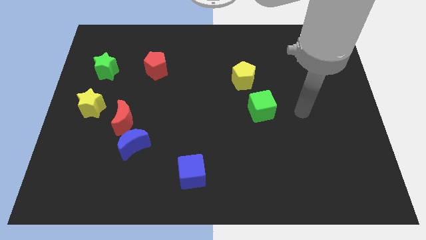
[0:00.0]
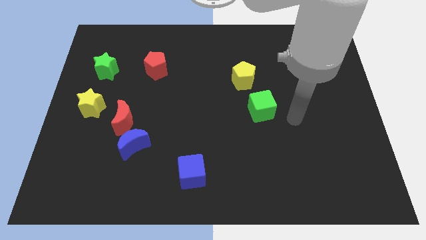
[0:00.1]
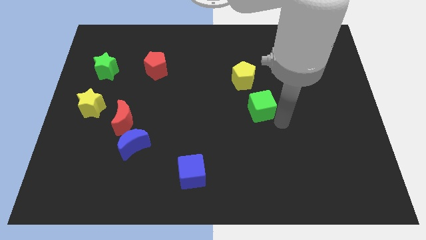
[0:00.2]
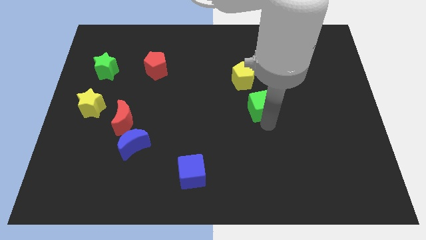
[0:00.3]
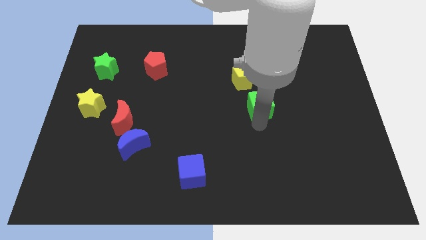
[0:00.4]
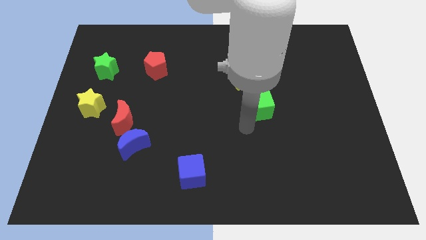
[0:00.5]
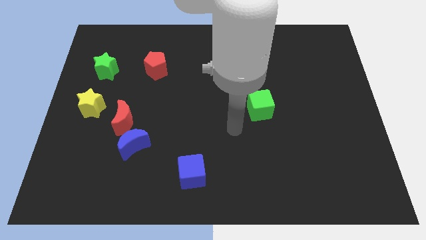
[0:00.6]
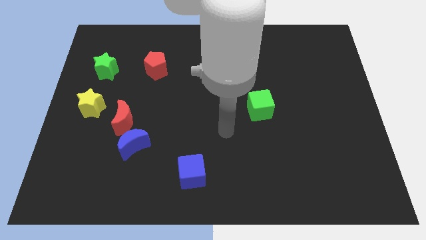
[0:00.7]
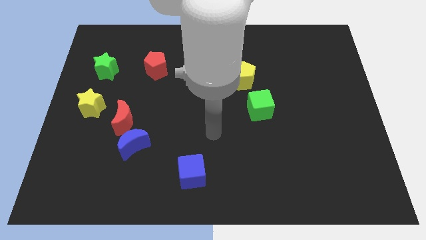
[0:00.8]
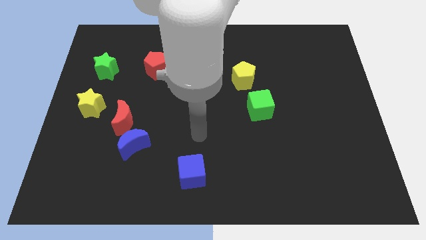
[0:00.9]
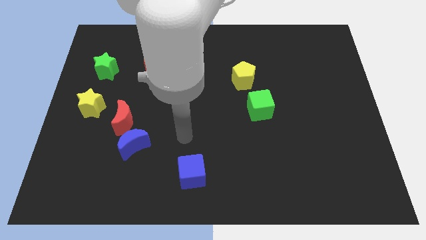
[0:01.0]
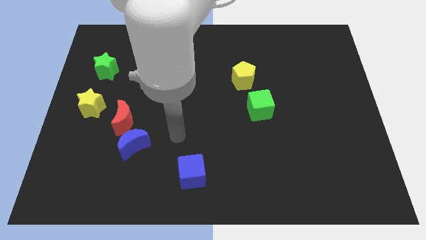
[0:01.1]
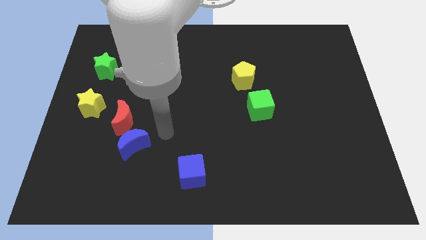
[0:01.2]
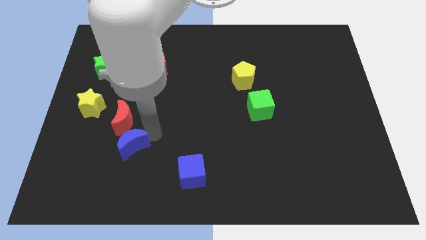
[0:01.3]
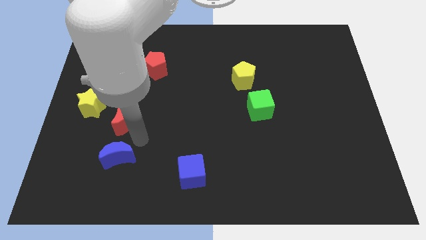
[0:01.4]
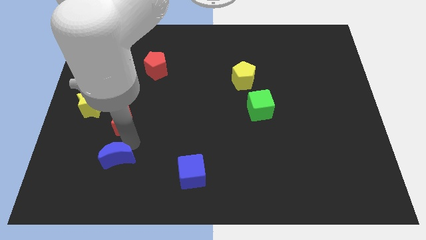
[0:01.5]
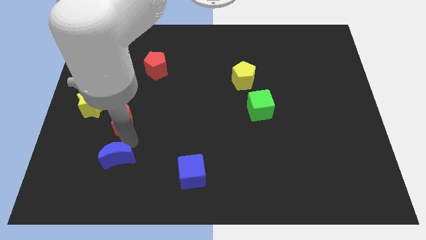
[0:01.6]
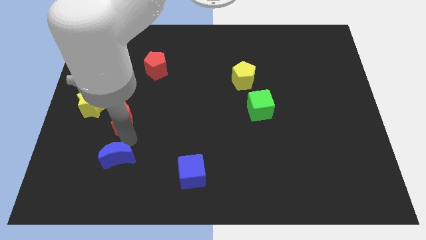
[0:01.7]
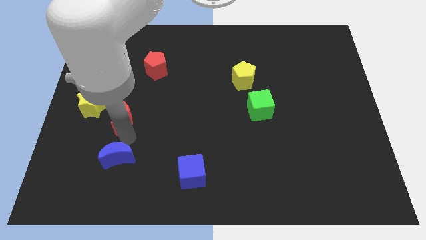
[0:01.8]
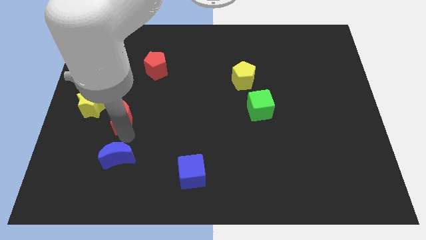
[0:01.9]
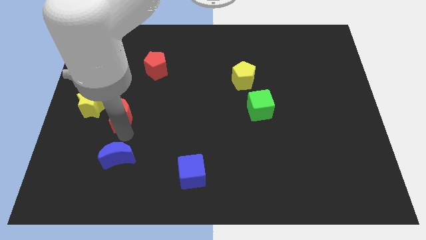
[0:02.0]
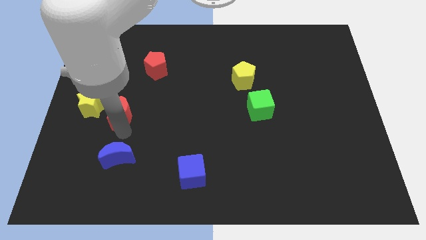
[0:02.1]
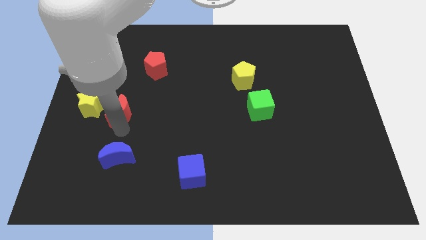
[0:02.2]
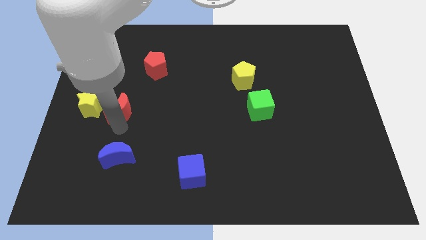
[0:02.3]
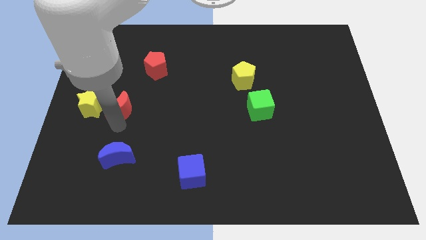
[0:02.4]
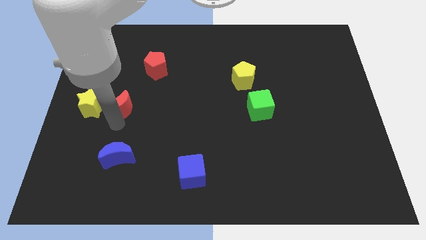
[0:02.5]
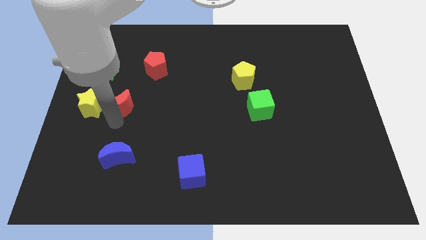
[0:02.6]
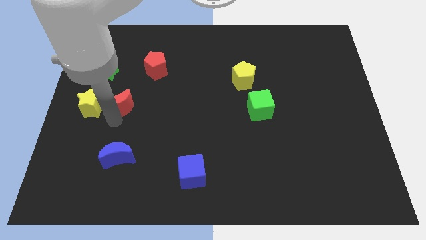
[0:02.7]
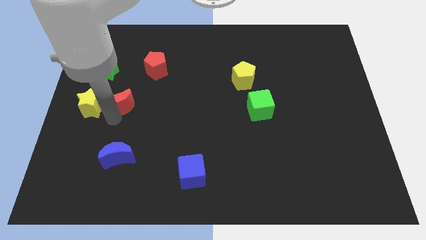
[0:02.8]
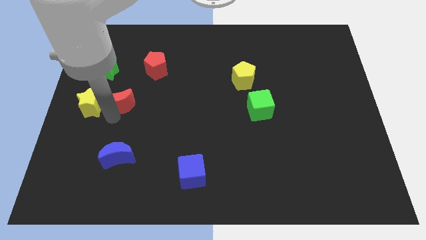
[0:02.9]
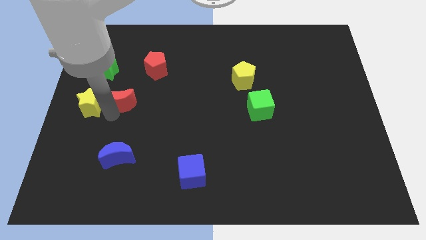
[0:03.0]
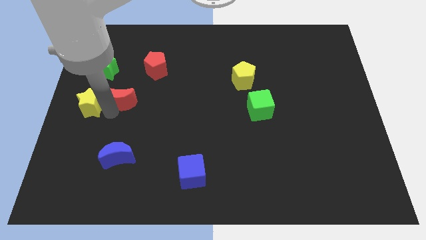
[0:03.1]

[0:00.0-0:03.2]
slide the red moon to the bottom right side of the green star

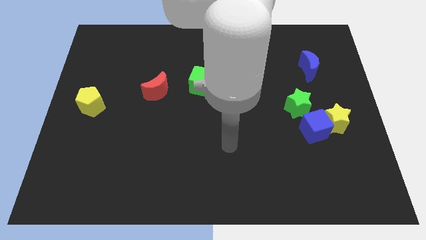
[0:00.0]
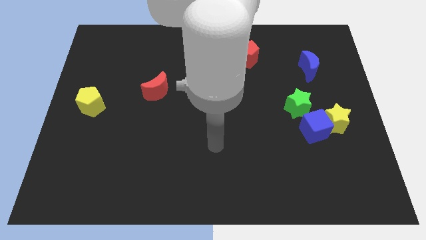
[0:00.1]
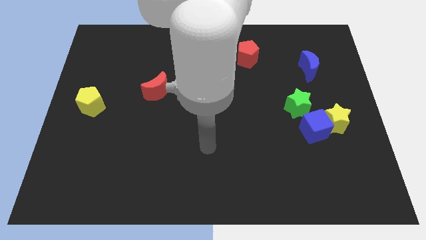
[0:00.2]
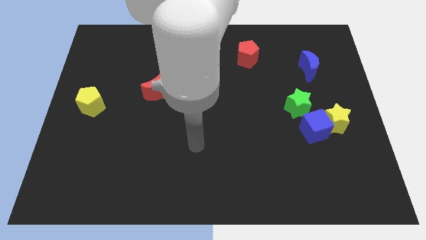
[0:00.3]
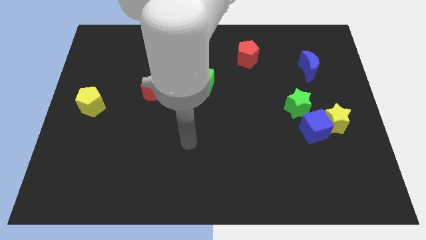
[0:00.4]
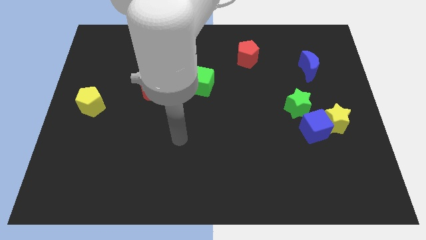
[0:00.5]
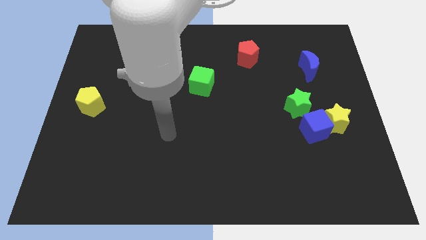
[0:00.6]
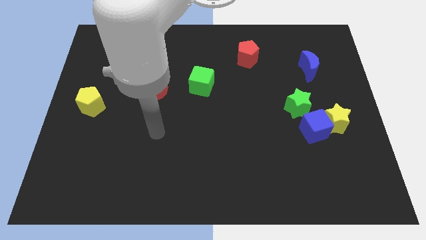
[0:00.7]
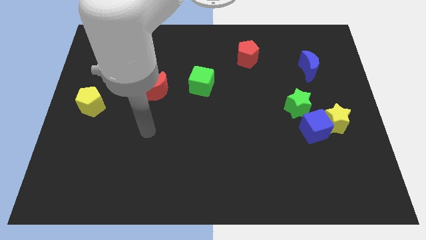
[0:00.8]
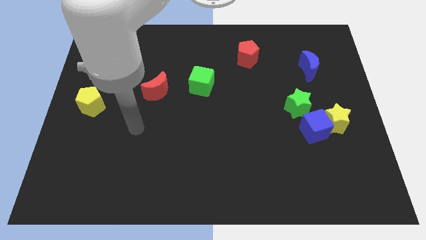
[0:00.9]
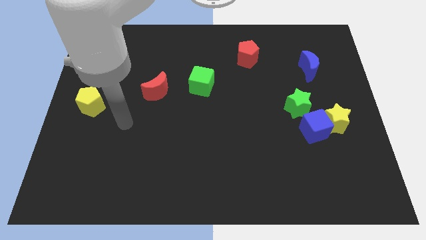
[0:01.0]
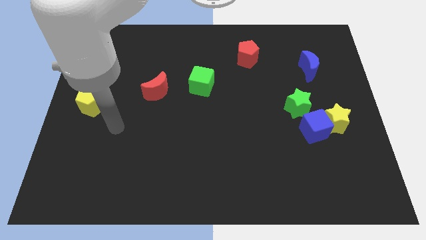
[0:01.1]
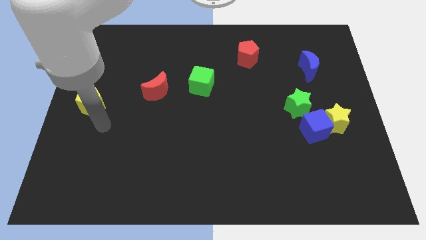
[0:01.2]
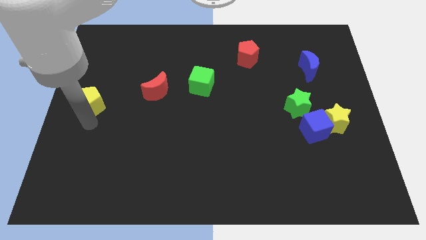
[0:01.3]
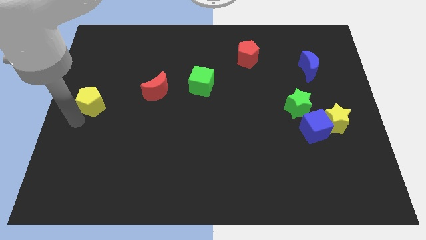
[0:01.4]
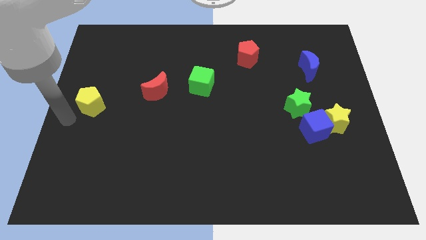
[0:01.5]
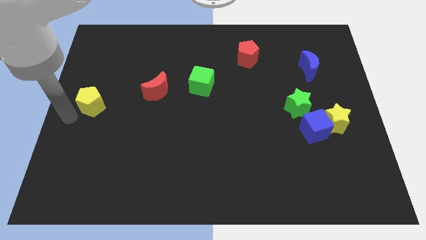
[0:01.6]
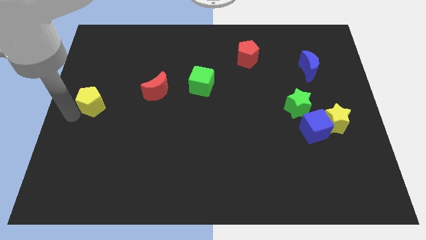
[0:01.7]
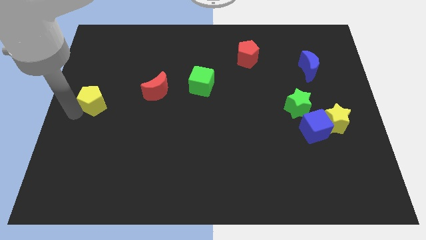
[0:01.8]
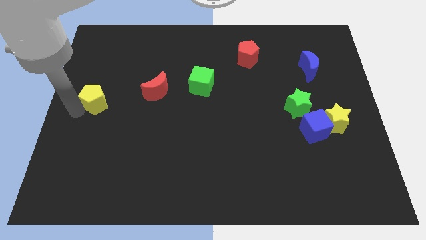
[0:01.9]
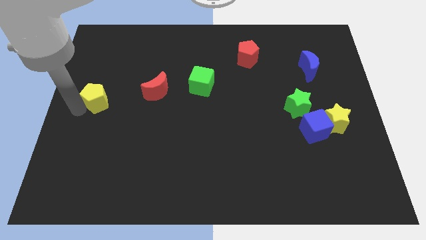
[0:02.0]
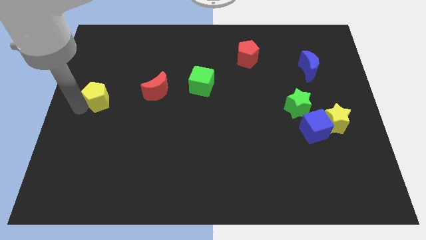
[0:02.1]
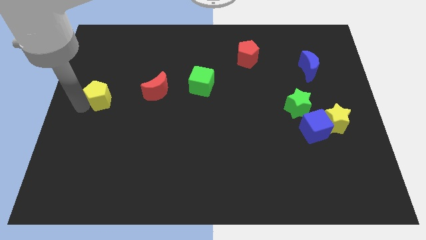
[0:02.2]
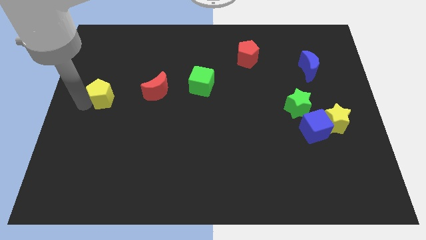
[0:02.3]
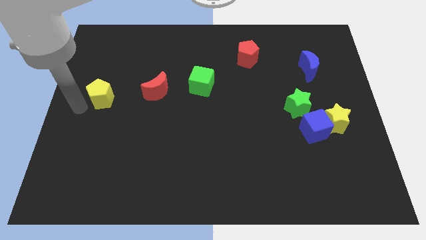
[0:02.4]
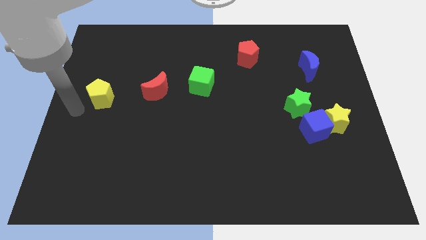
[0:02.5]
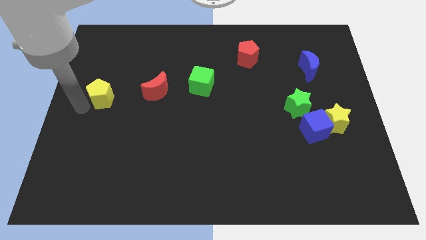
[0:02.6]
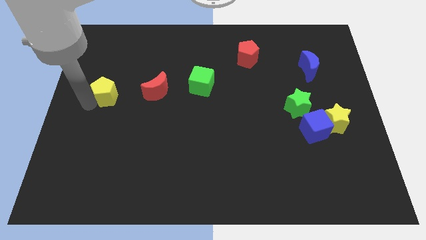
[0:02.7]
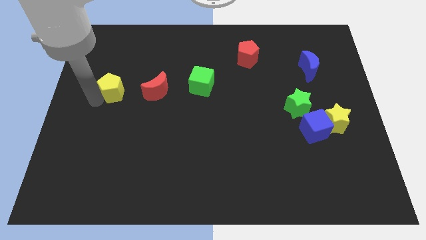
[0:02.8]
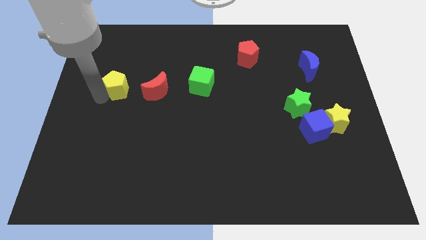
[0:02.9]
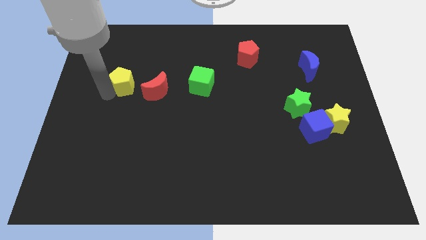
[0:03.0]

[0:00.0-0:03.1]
move the yellow pentagon diagonally up and to the left of the red moon

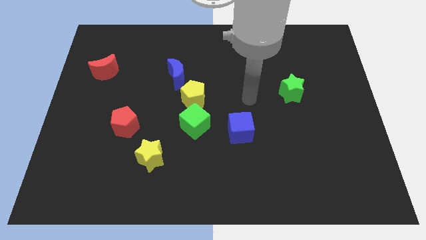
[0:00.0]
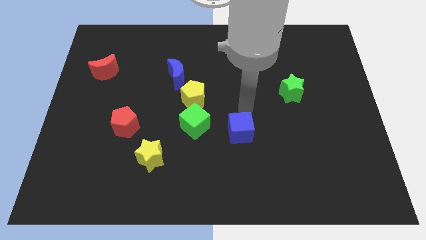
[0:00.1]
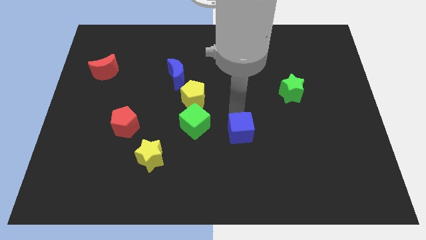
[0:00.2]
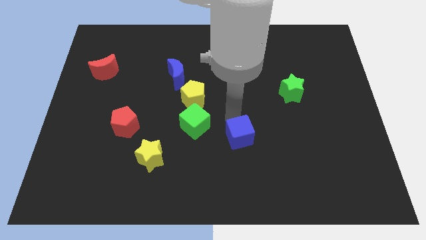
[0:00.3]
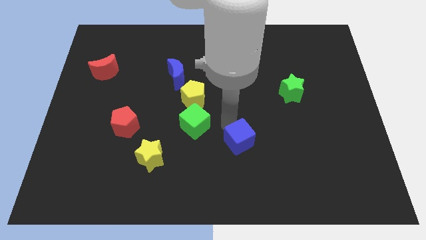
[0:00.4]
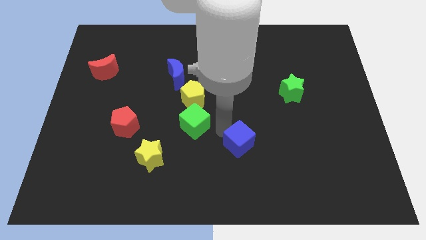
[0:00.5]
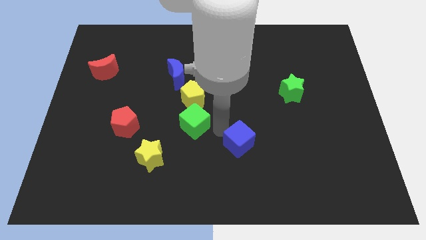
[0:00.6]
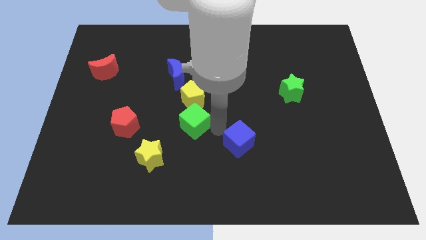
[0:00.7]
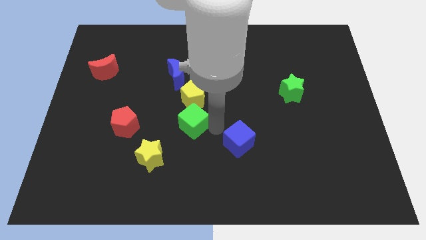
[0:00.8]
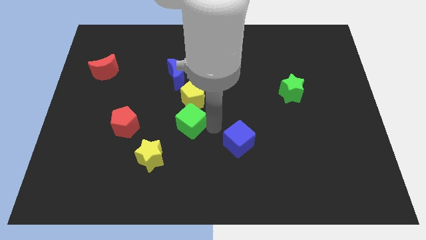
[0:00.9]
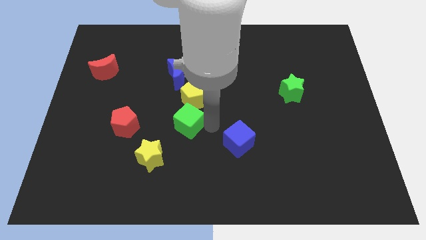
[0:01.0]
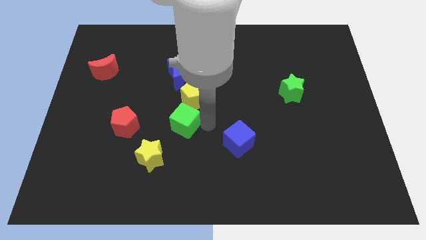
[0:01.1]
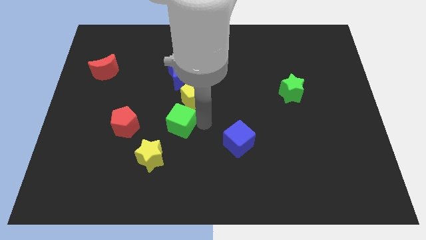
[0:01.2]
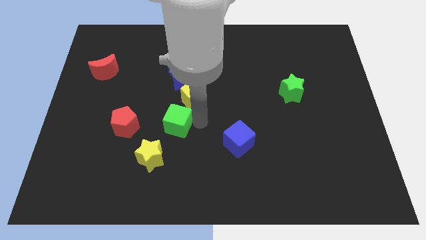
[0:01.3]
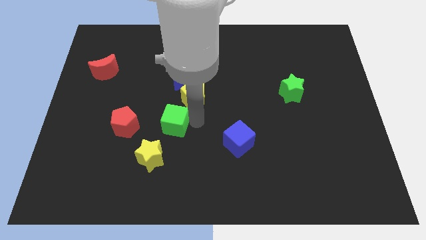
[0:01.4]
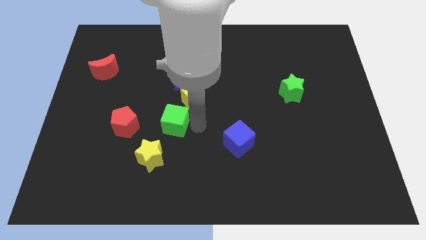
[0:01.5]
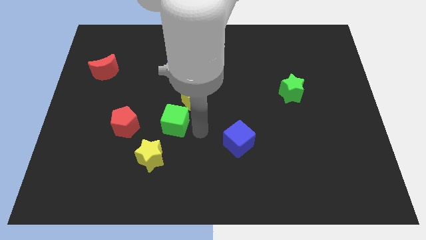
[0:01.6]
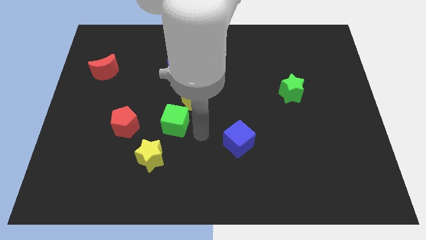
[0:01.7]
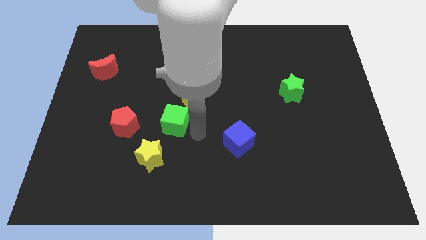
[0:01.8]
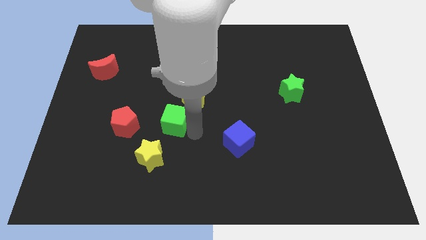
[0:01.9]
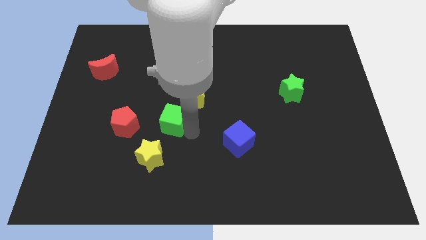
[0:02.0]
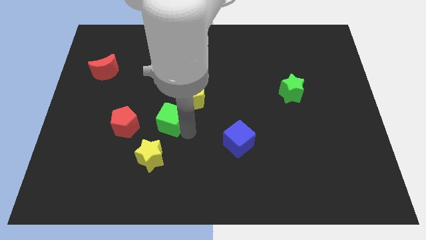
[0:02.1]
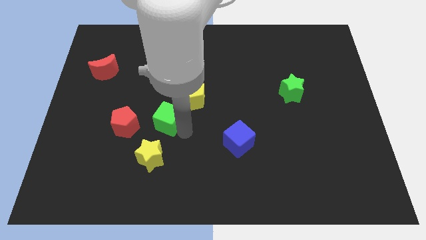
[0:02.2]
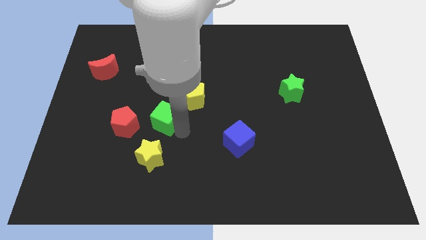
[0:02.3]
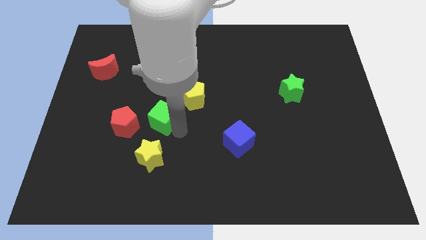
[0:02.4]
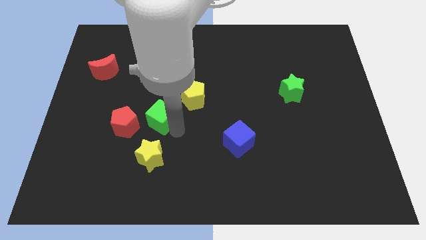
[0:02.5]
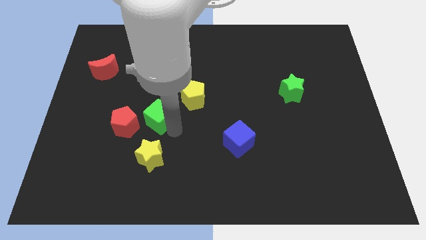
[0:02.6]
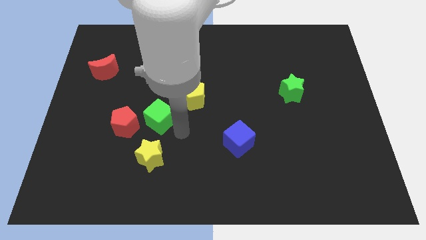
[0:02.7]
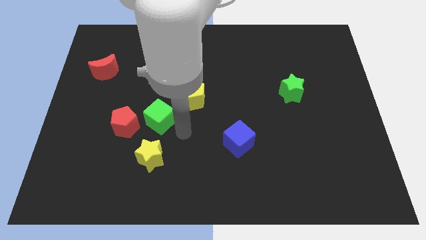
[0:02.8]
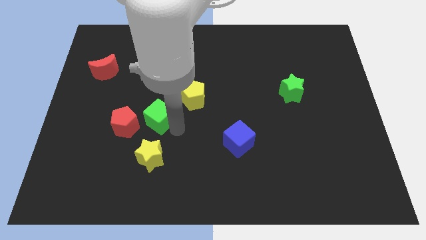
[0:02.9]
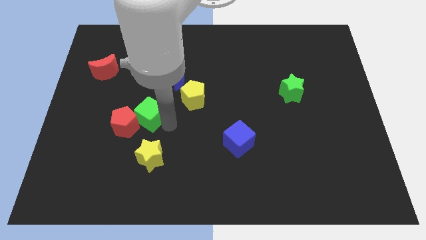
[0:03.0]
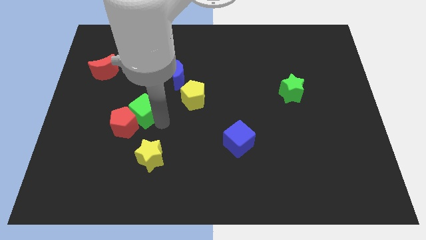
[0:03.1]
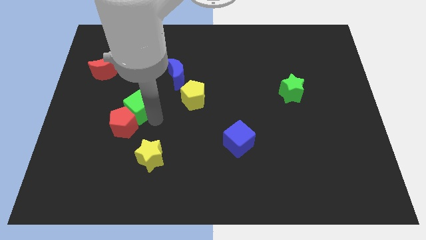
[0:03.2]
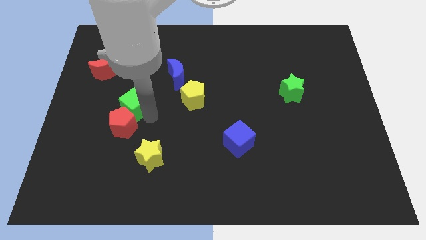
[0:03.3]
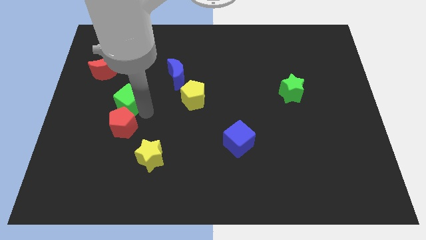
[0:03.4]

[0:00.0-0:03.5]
move the green cube to the top left side of the red pentagon
